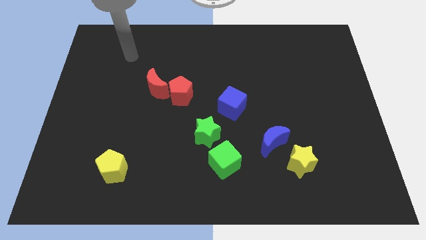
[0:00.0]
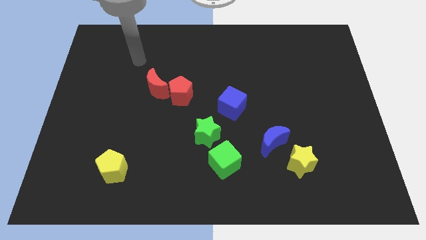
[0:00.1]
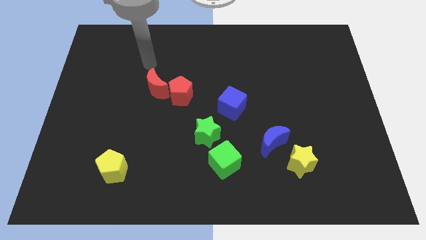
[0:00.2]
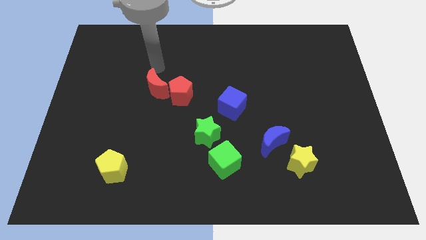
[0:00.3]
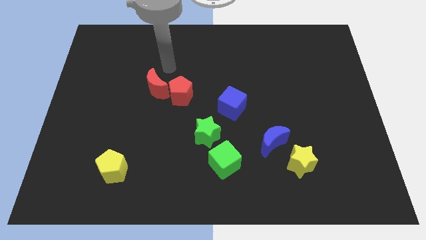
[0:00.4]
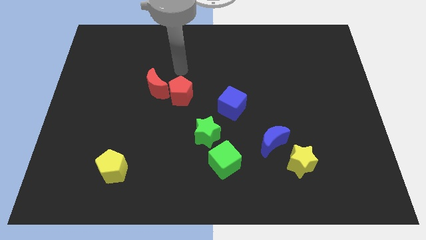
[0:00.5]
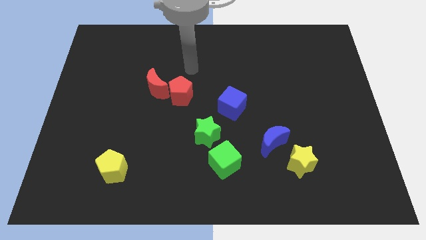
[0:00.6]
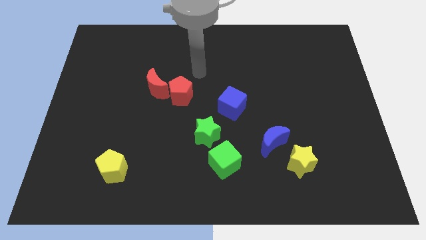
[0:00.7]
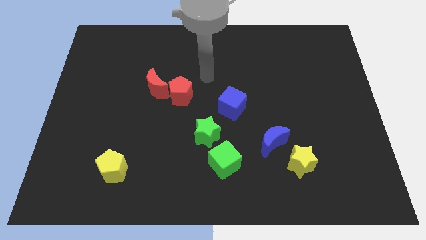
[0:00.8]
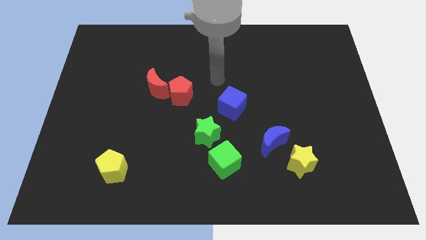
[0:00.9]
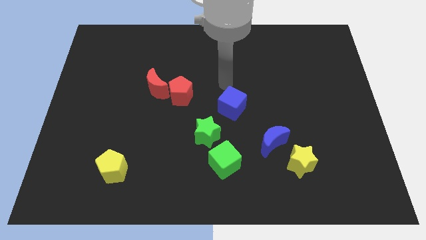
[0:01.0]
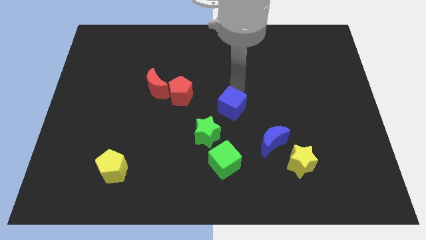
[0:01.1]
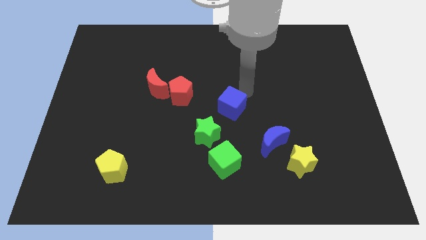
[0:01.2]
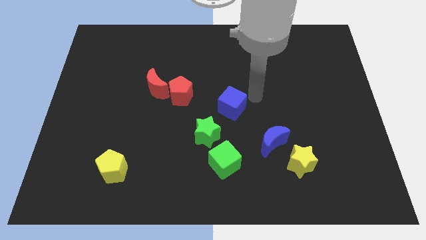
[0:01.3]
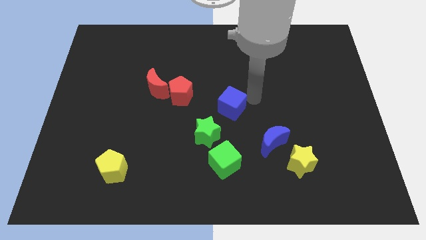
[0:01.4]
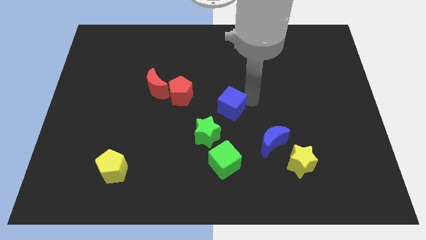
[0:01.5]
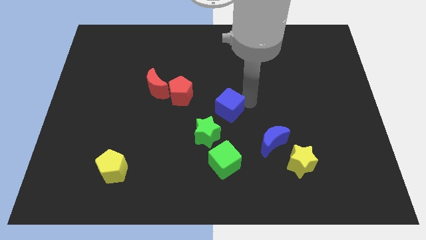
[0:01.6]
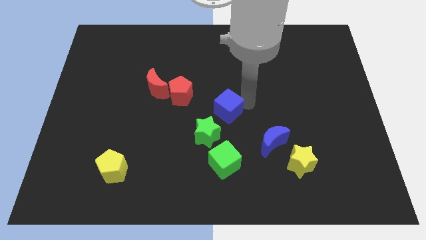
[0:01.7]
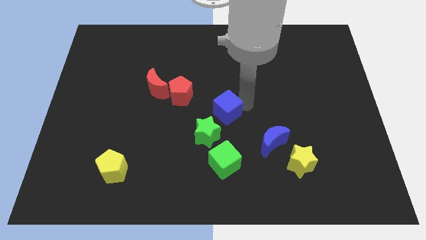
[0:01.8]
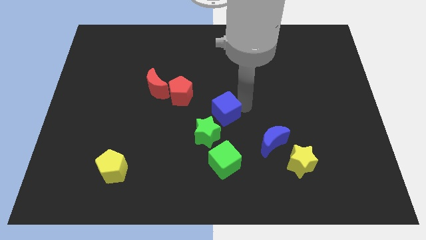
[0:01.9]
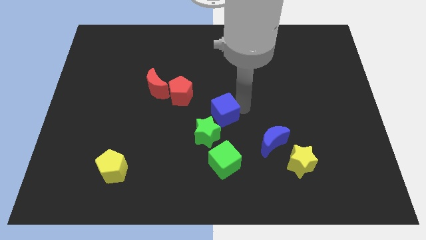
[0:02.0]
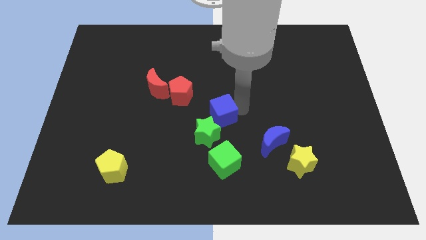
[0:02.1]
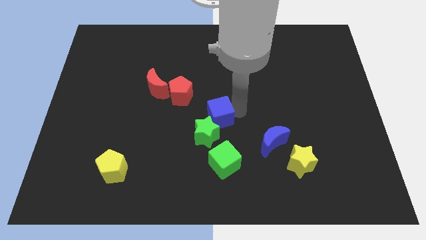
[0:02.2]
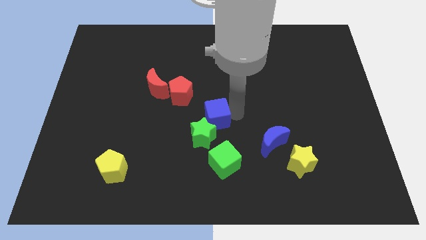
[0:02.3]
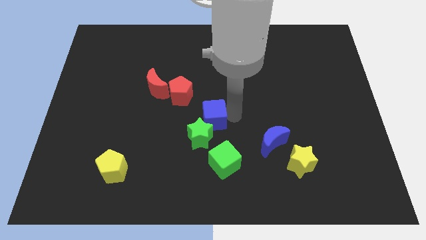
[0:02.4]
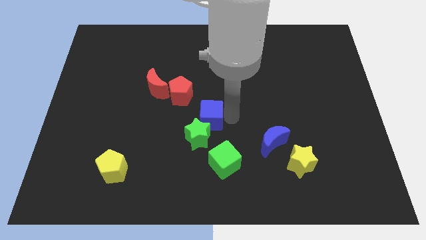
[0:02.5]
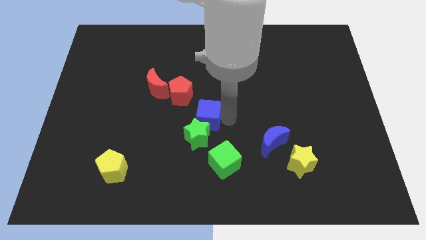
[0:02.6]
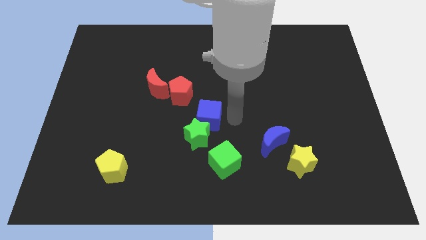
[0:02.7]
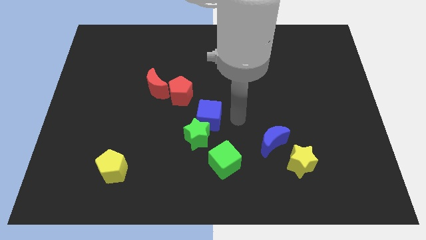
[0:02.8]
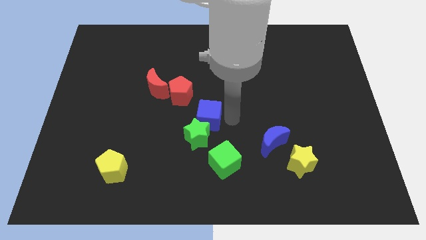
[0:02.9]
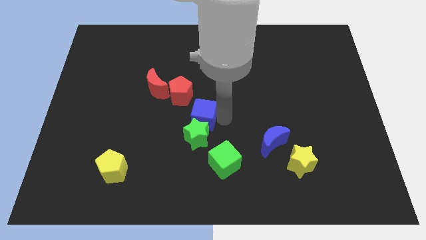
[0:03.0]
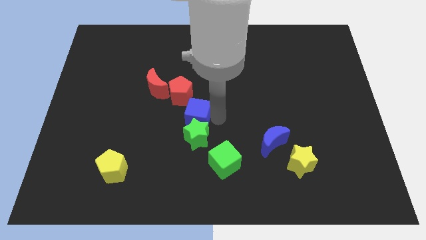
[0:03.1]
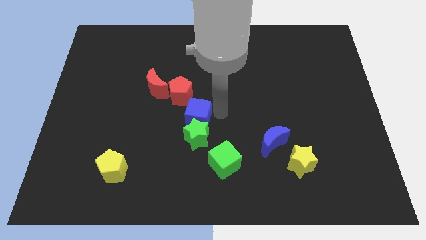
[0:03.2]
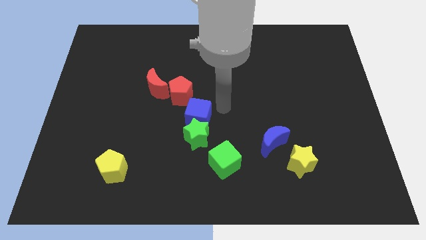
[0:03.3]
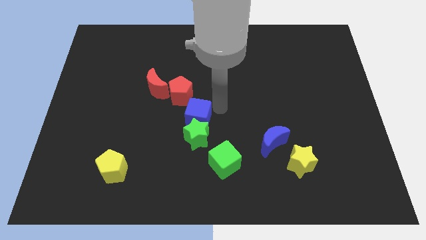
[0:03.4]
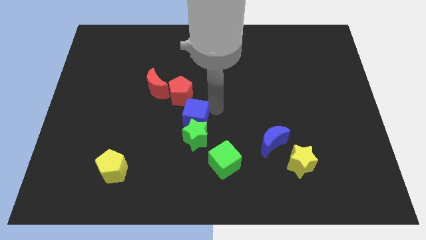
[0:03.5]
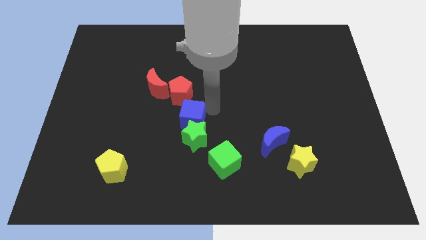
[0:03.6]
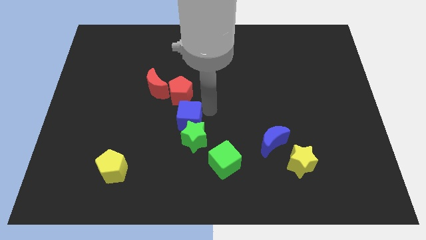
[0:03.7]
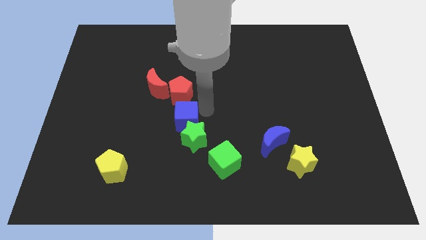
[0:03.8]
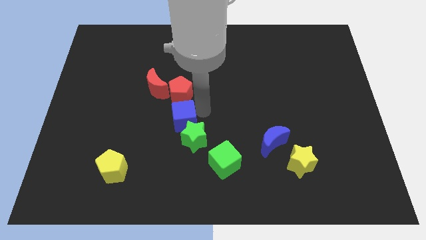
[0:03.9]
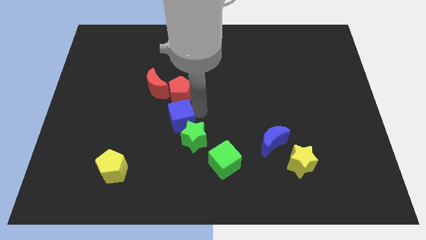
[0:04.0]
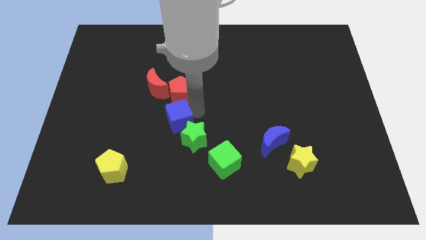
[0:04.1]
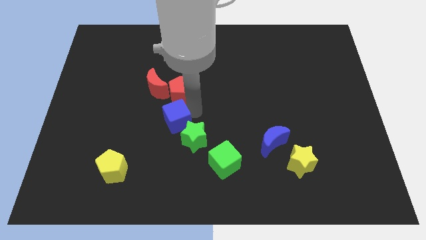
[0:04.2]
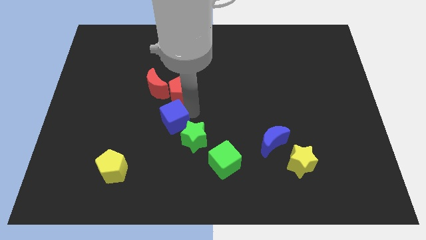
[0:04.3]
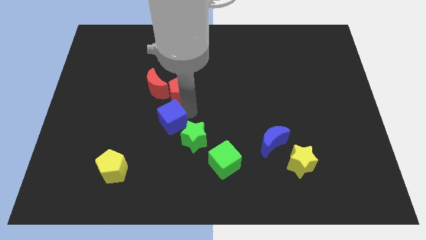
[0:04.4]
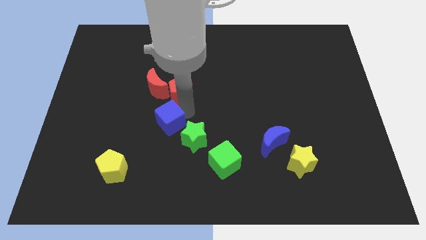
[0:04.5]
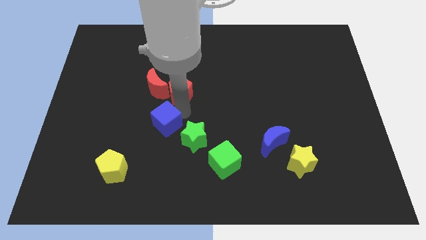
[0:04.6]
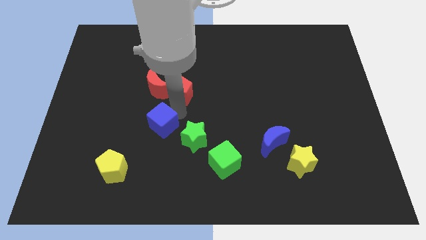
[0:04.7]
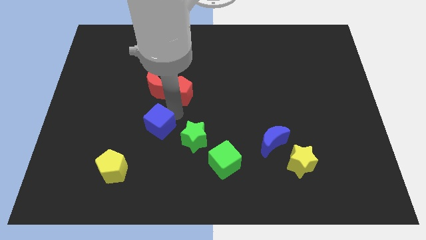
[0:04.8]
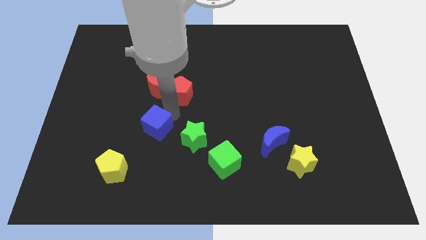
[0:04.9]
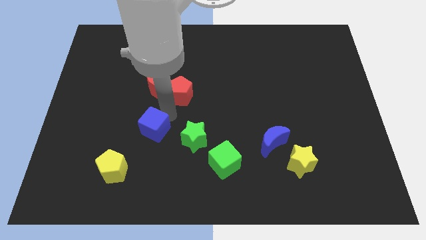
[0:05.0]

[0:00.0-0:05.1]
slide the blue cube to the top right of the yellow pentagon

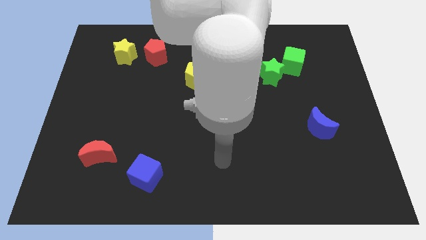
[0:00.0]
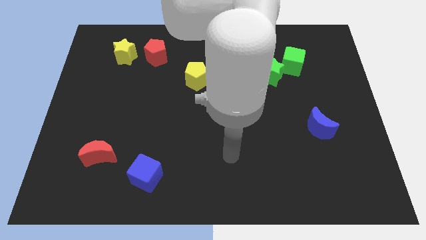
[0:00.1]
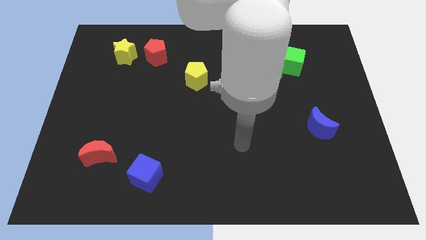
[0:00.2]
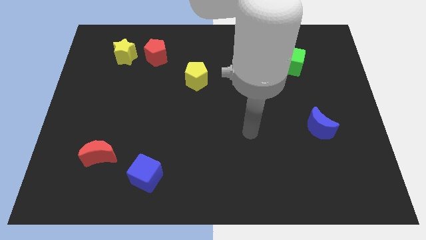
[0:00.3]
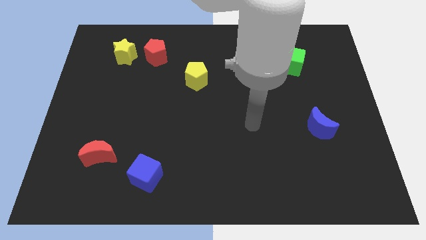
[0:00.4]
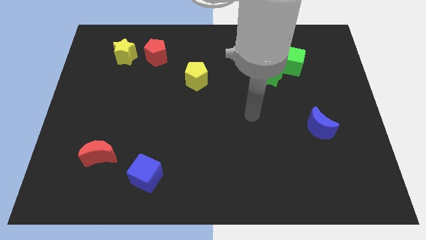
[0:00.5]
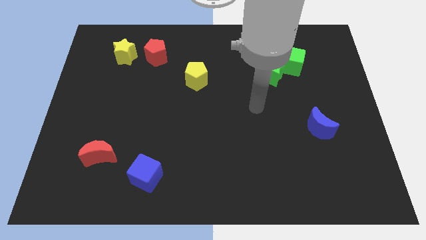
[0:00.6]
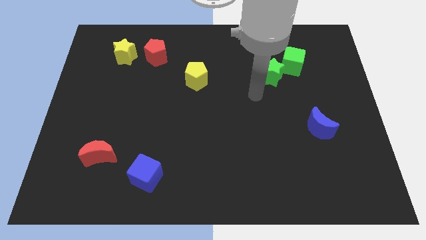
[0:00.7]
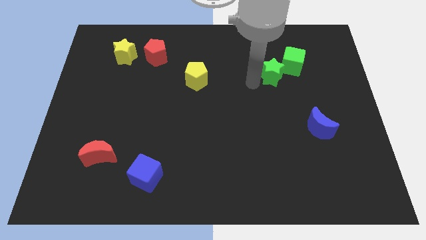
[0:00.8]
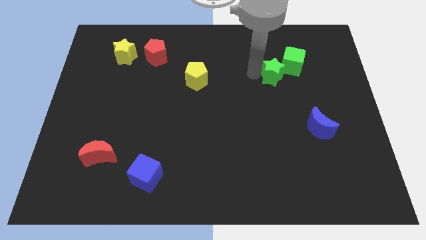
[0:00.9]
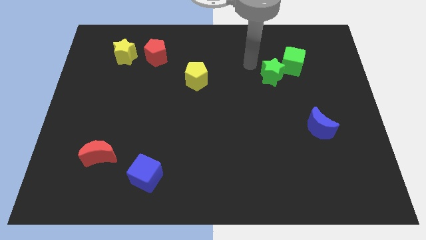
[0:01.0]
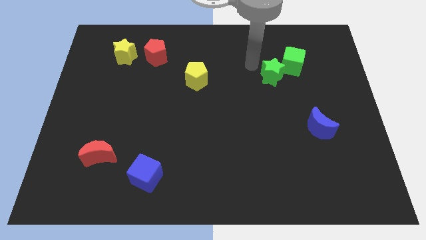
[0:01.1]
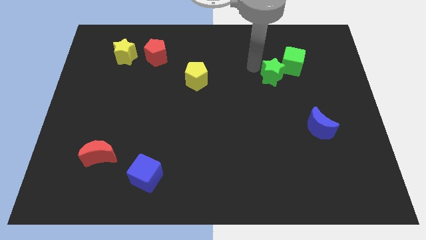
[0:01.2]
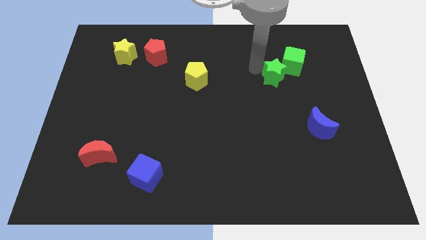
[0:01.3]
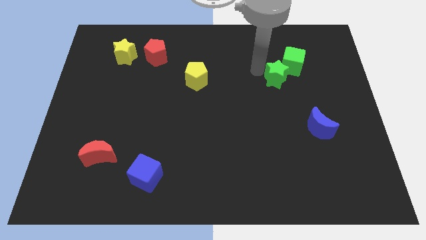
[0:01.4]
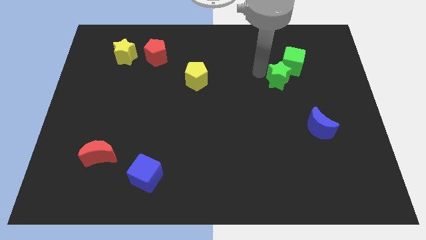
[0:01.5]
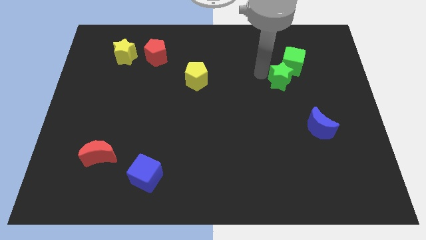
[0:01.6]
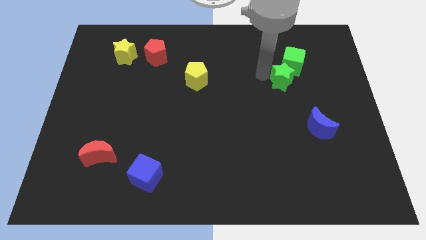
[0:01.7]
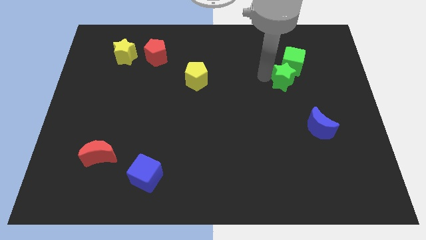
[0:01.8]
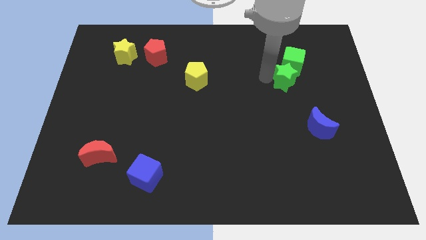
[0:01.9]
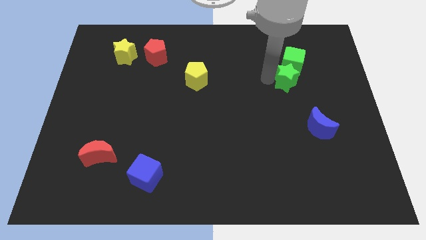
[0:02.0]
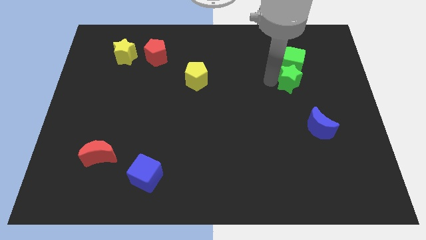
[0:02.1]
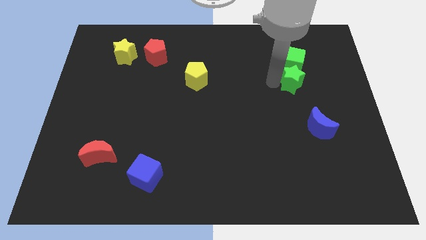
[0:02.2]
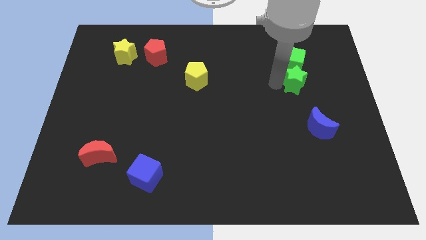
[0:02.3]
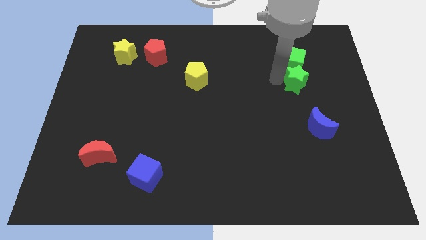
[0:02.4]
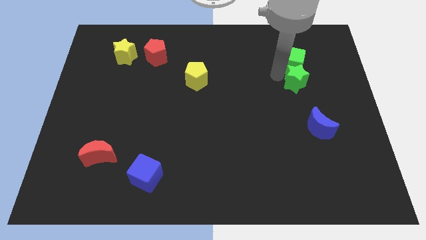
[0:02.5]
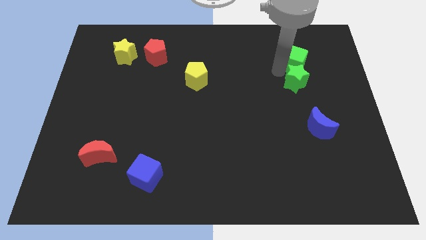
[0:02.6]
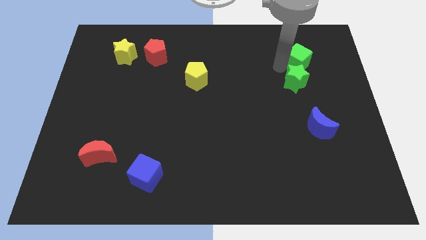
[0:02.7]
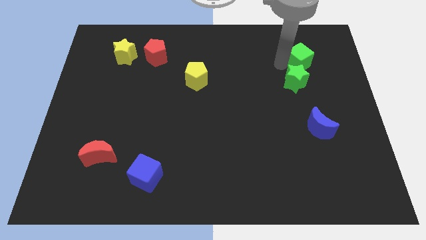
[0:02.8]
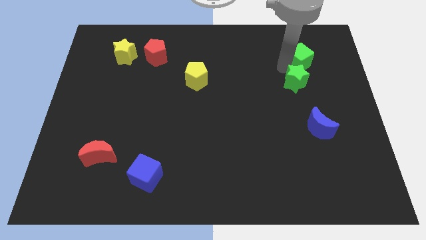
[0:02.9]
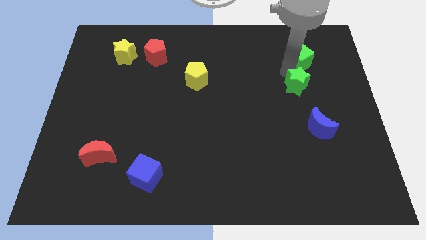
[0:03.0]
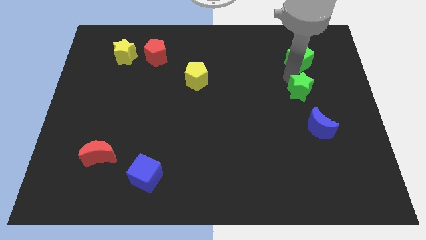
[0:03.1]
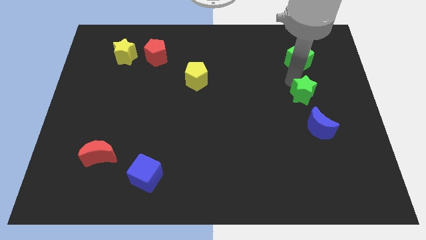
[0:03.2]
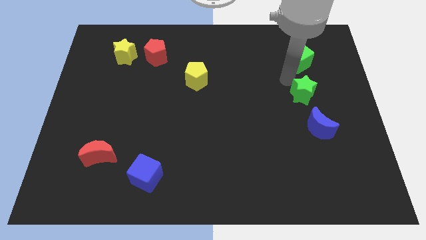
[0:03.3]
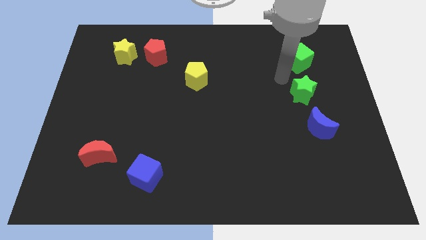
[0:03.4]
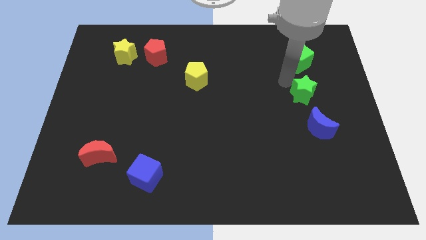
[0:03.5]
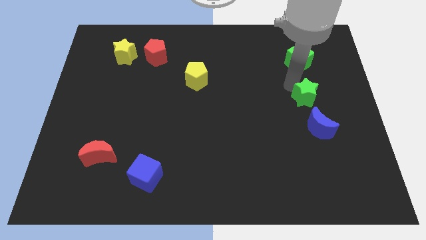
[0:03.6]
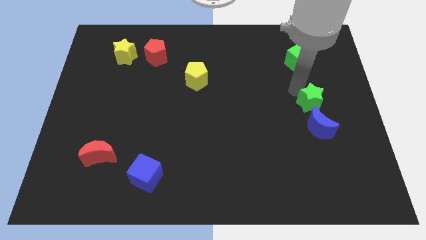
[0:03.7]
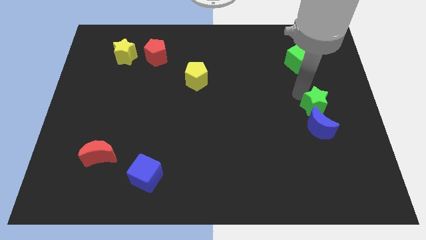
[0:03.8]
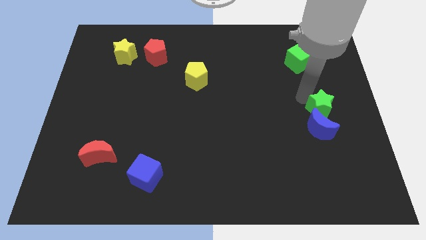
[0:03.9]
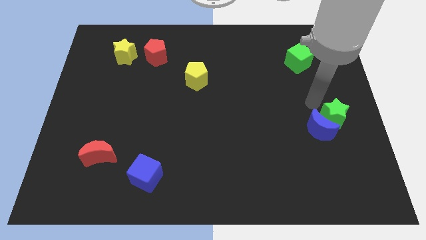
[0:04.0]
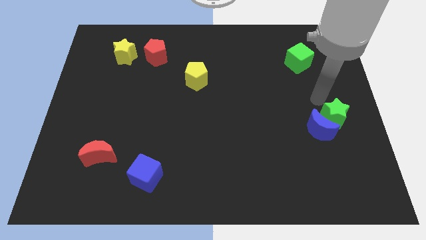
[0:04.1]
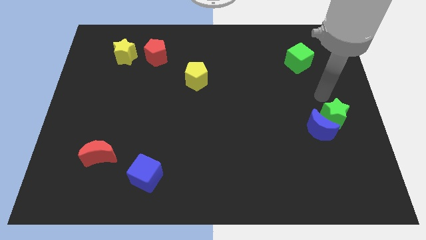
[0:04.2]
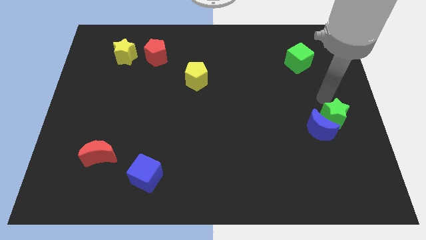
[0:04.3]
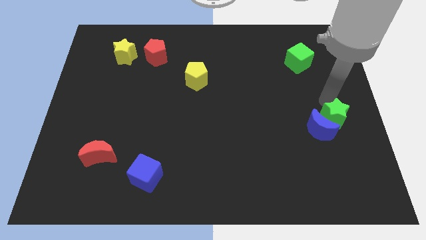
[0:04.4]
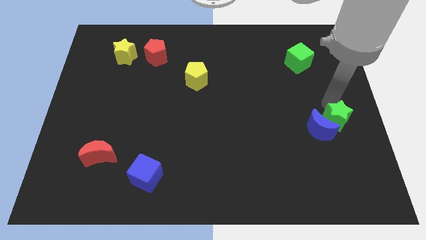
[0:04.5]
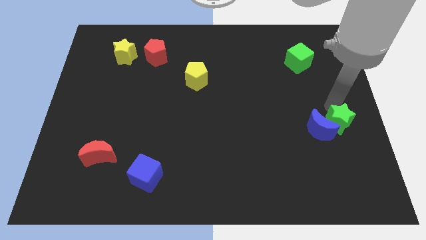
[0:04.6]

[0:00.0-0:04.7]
move the green star diagonally down and to the right of the blue moon
